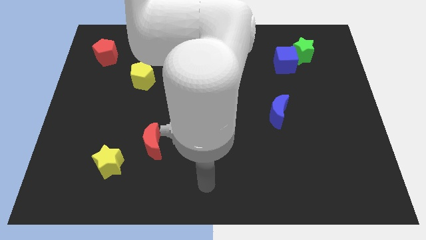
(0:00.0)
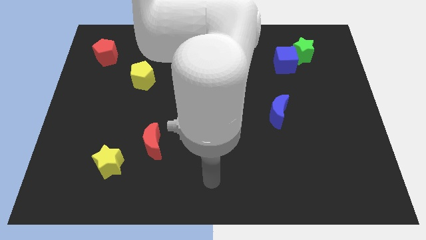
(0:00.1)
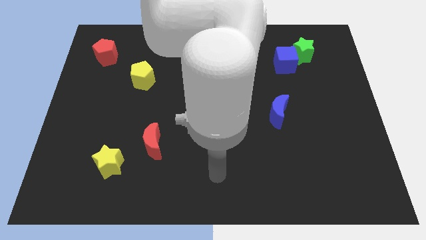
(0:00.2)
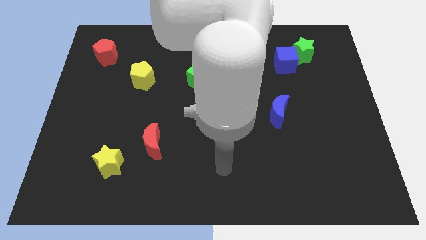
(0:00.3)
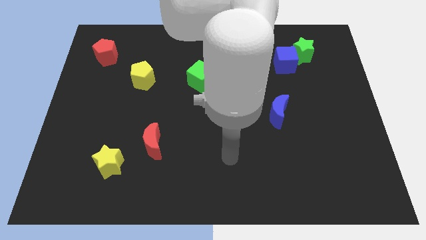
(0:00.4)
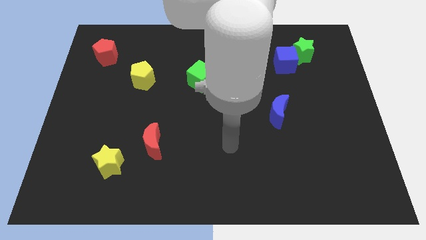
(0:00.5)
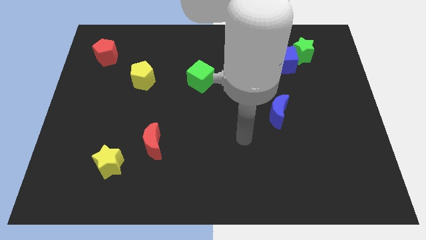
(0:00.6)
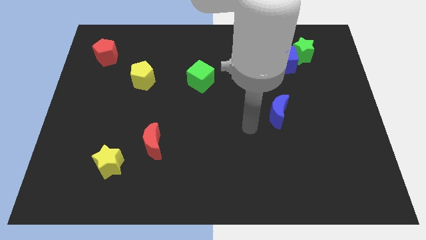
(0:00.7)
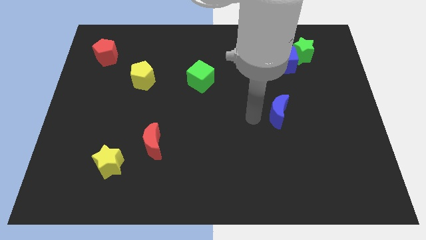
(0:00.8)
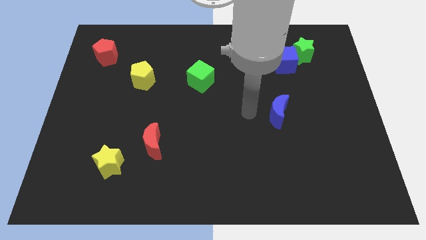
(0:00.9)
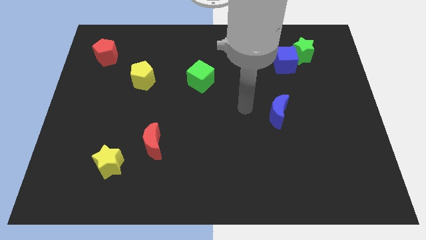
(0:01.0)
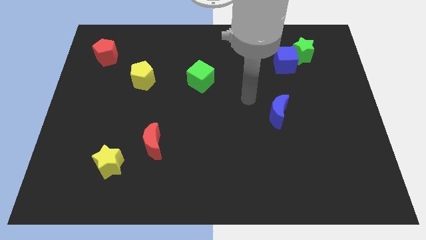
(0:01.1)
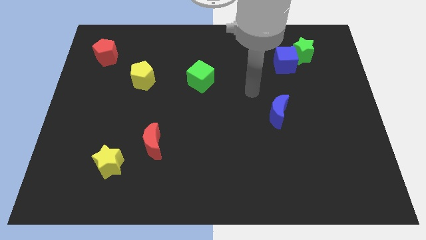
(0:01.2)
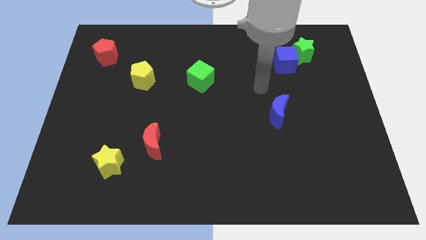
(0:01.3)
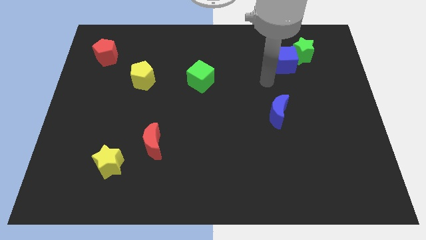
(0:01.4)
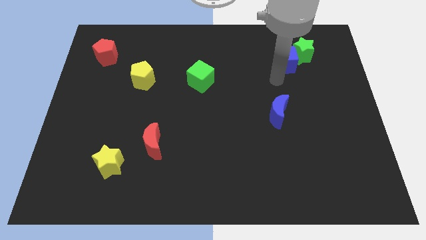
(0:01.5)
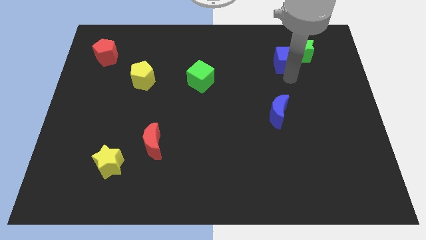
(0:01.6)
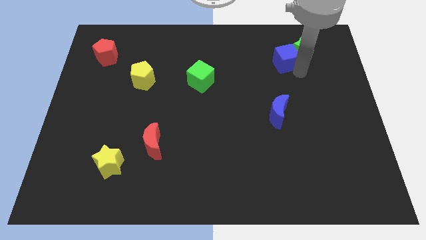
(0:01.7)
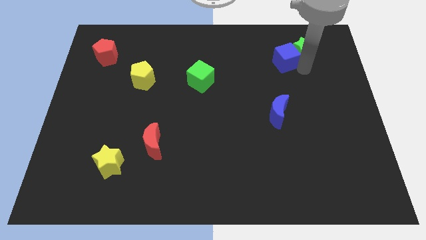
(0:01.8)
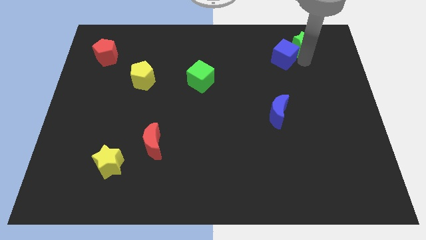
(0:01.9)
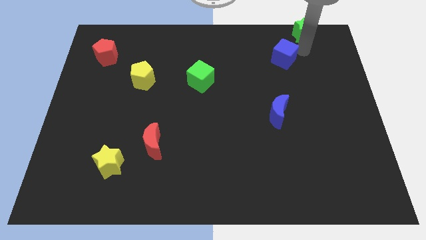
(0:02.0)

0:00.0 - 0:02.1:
move the blue cube away from the green star

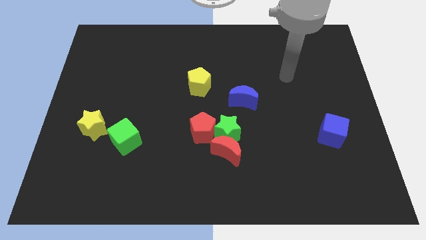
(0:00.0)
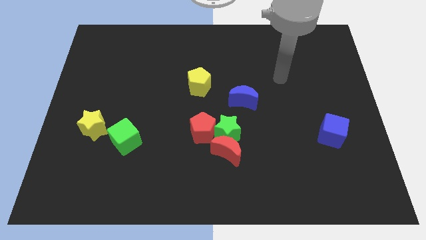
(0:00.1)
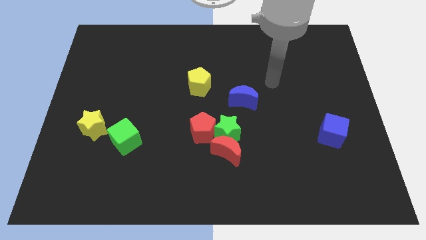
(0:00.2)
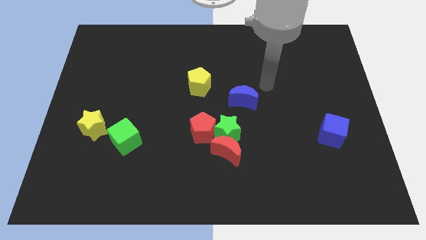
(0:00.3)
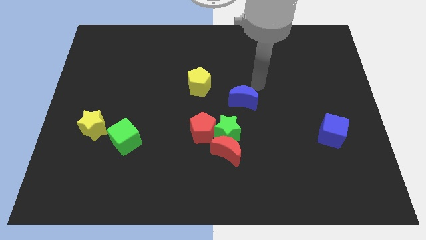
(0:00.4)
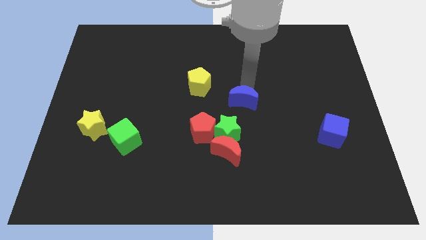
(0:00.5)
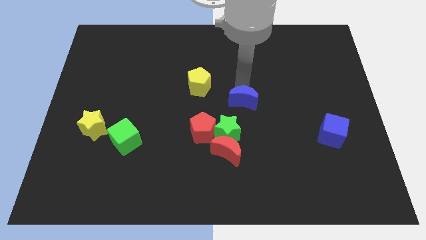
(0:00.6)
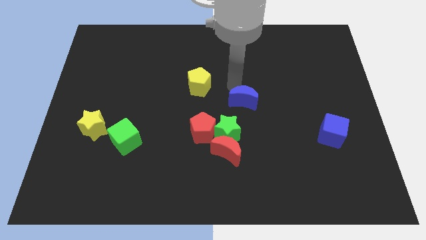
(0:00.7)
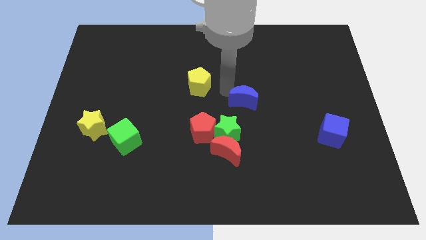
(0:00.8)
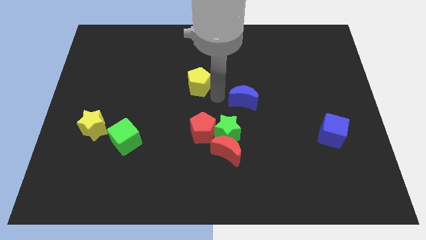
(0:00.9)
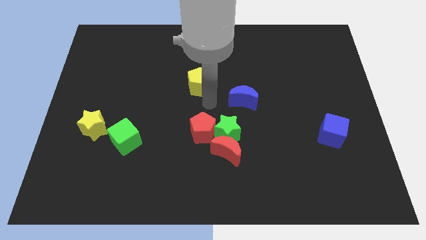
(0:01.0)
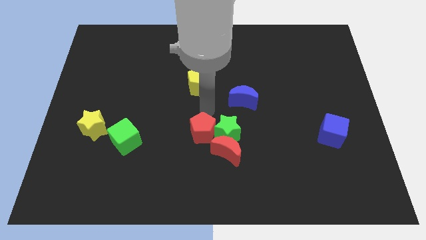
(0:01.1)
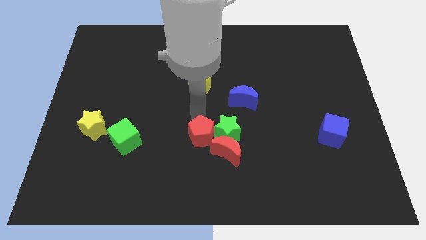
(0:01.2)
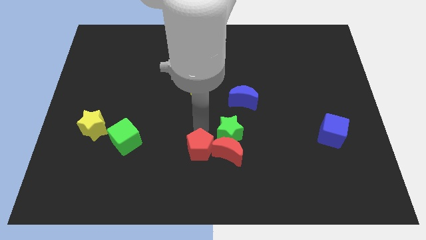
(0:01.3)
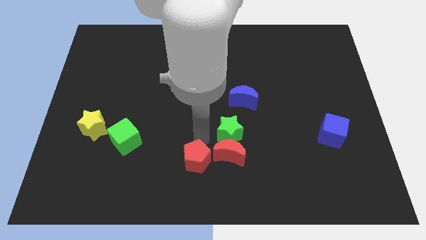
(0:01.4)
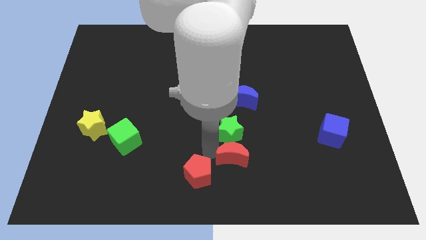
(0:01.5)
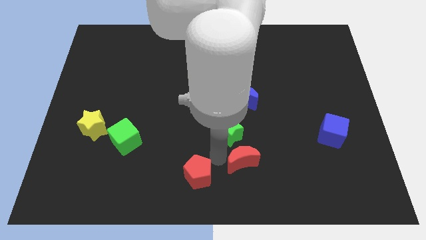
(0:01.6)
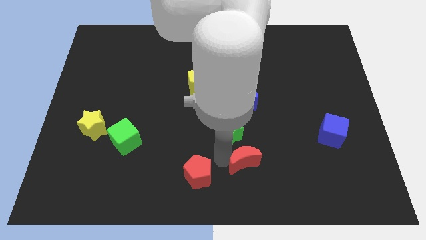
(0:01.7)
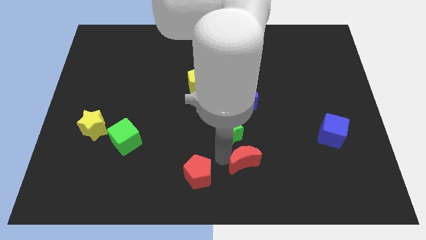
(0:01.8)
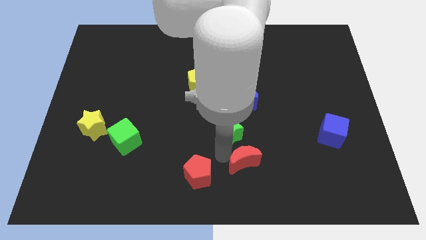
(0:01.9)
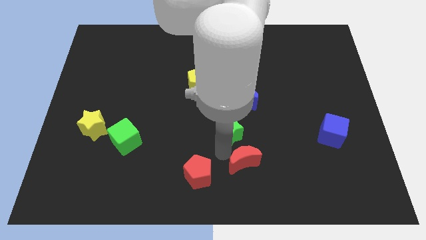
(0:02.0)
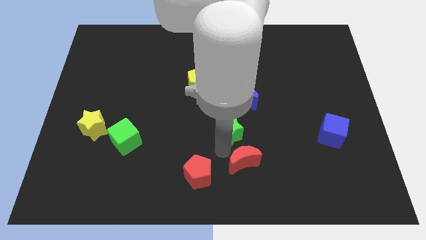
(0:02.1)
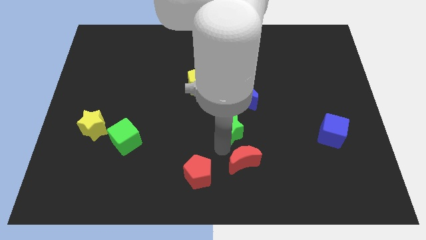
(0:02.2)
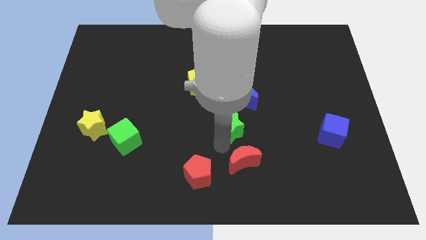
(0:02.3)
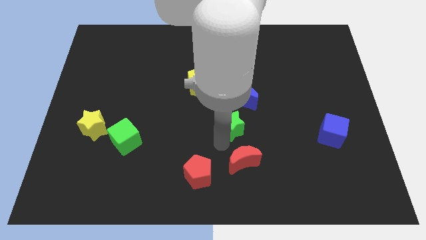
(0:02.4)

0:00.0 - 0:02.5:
separate the green star from the red moon and red pentagon

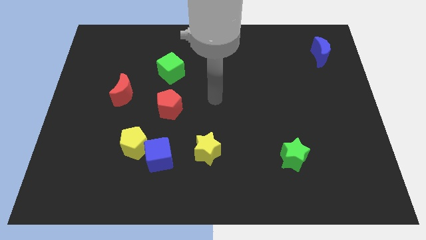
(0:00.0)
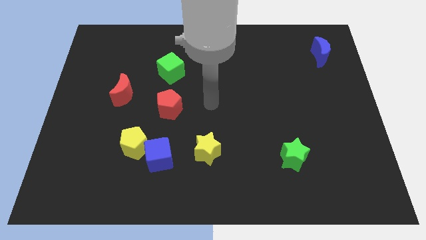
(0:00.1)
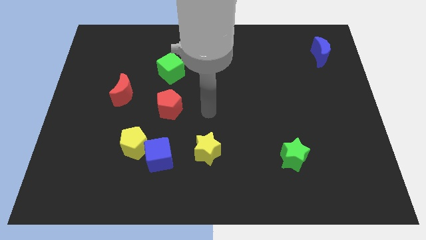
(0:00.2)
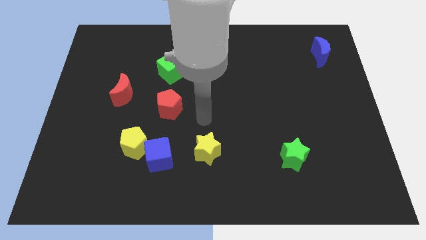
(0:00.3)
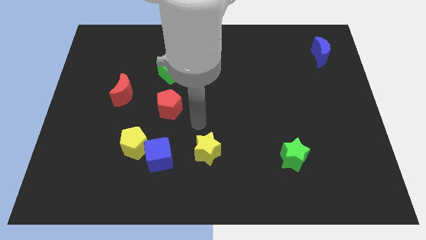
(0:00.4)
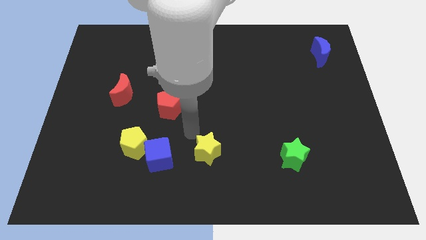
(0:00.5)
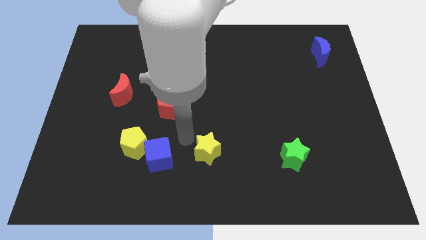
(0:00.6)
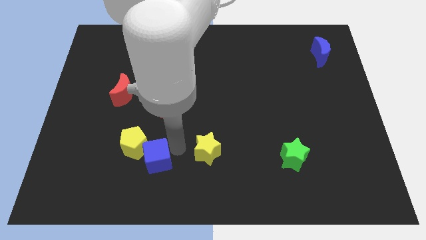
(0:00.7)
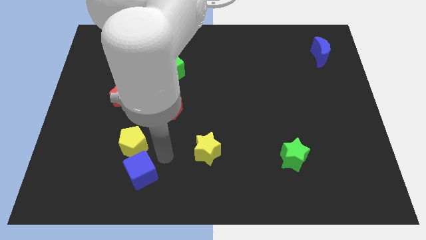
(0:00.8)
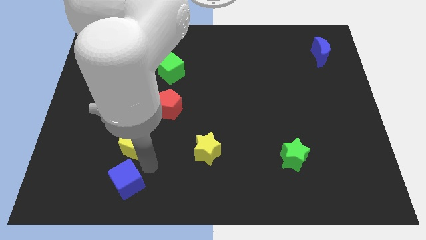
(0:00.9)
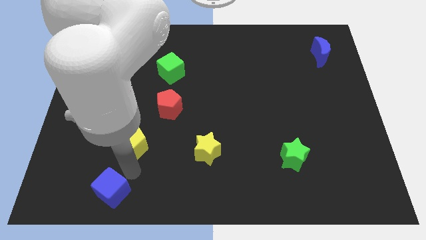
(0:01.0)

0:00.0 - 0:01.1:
pull the yellow pentagon apart from the blue cube

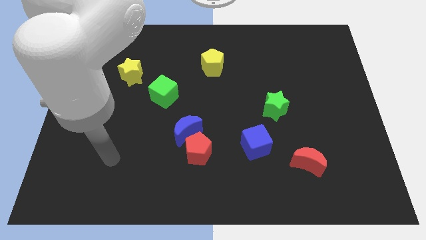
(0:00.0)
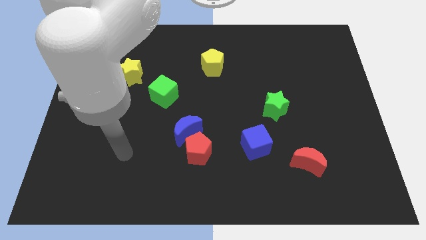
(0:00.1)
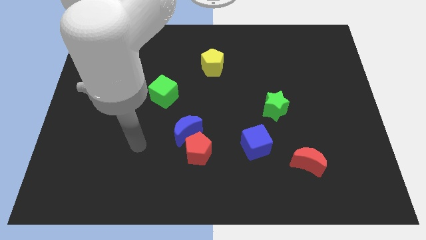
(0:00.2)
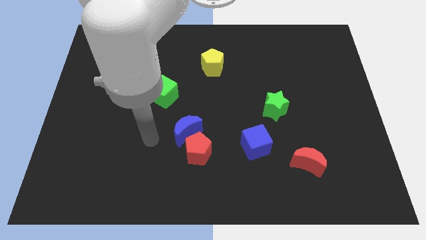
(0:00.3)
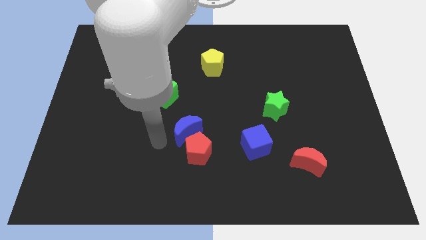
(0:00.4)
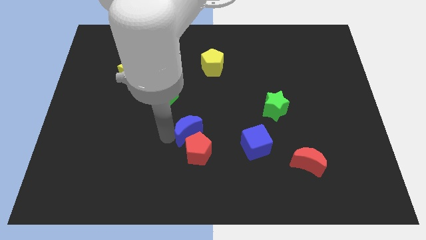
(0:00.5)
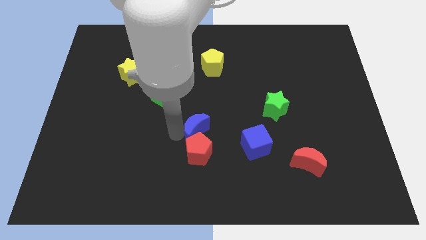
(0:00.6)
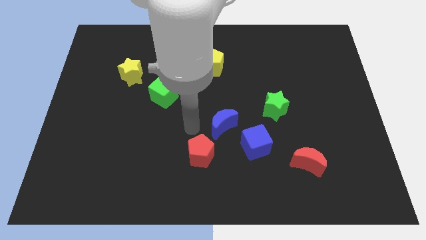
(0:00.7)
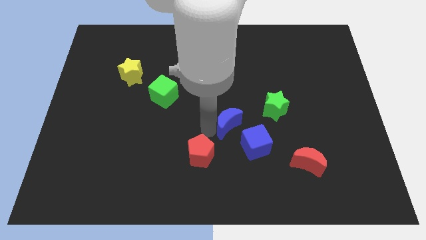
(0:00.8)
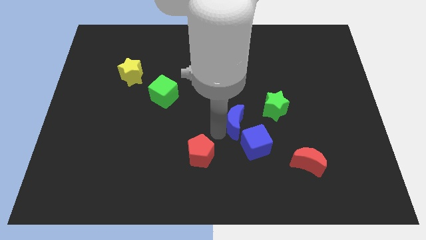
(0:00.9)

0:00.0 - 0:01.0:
separate the red pentagon from the blue moon

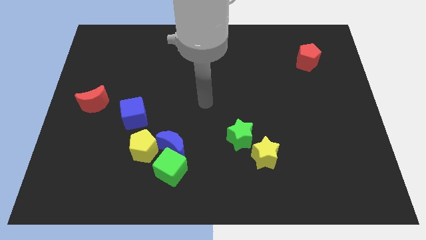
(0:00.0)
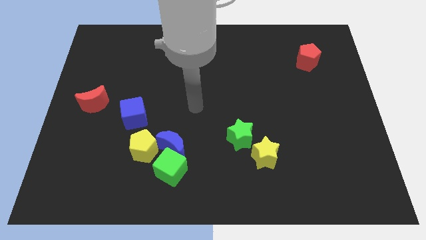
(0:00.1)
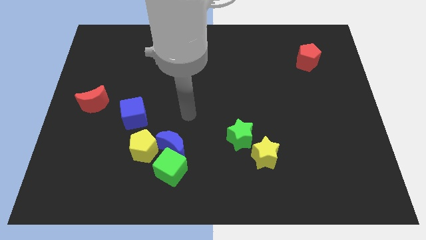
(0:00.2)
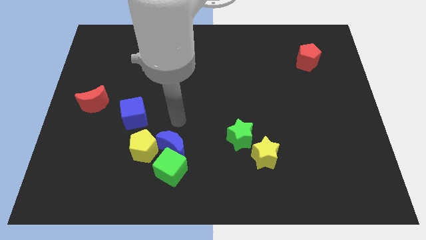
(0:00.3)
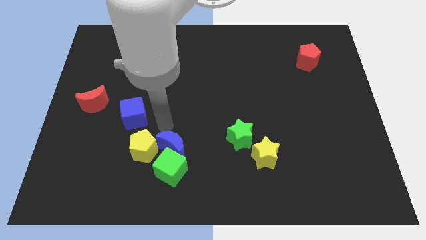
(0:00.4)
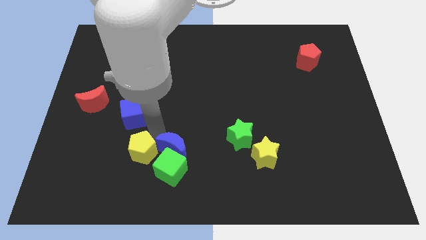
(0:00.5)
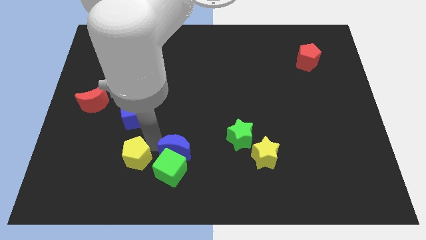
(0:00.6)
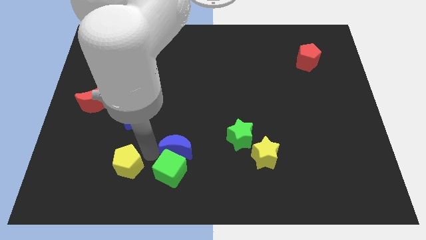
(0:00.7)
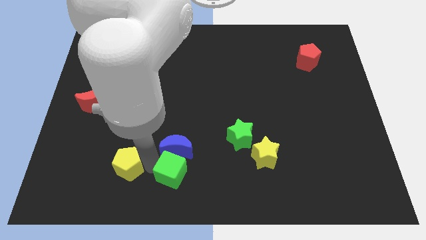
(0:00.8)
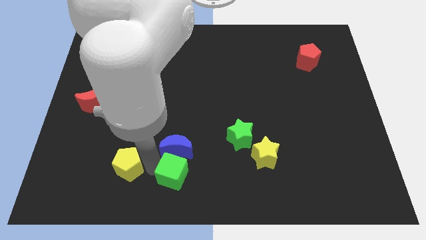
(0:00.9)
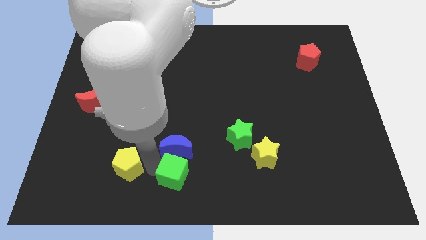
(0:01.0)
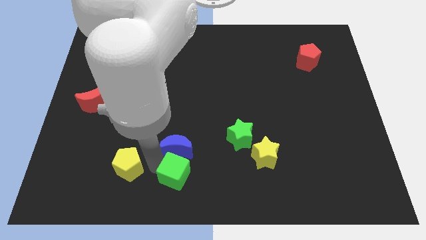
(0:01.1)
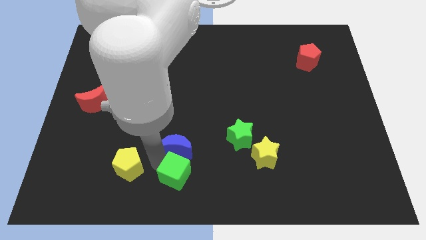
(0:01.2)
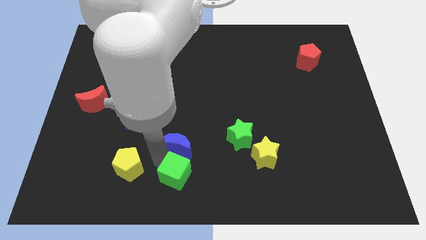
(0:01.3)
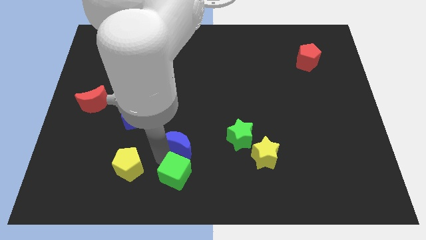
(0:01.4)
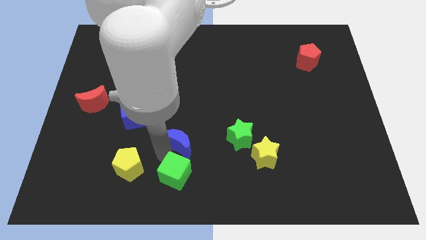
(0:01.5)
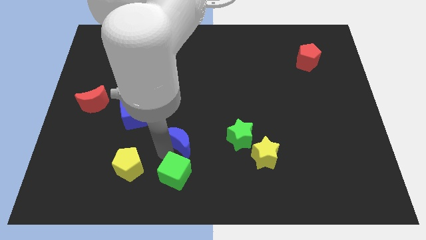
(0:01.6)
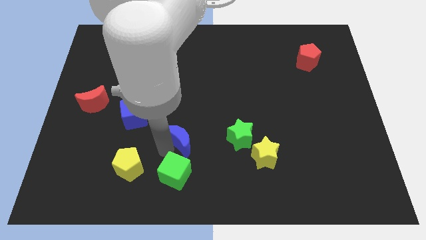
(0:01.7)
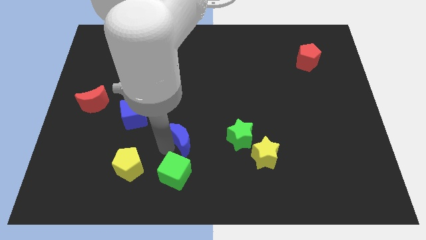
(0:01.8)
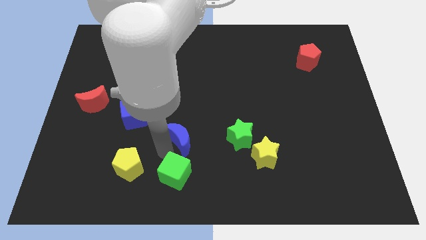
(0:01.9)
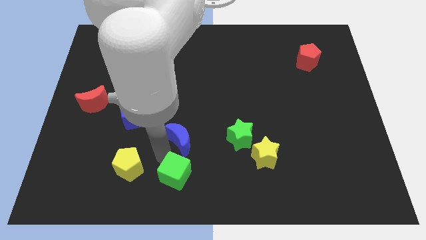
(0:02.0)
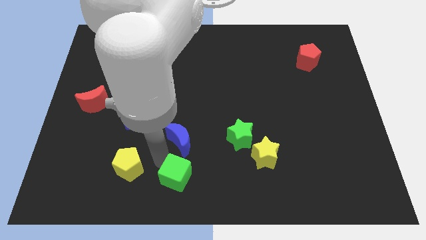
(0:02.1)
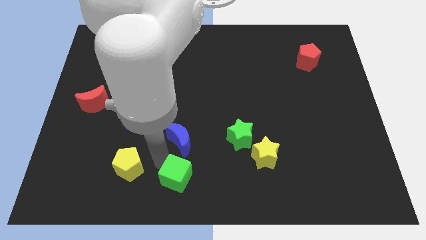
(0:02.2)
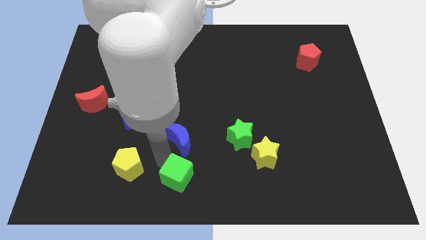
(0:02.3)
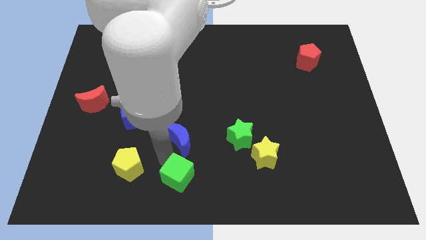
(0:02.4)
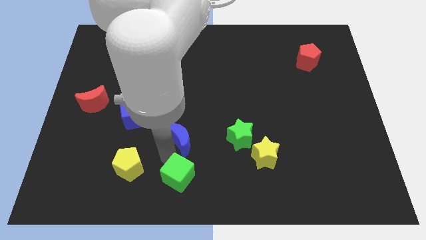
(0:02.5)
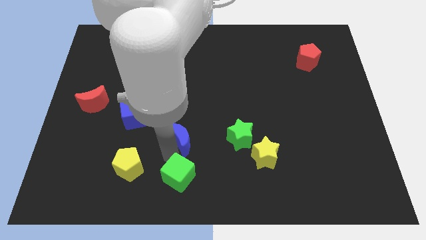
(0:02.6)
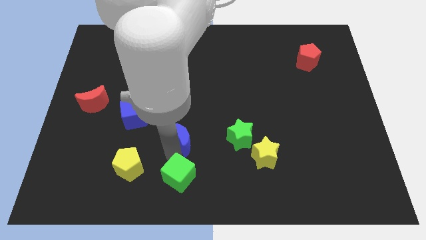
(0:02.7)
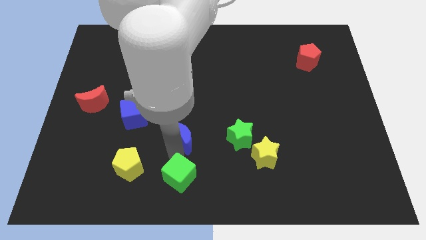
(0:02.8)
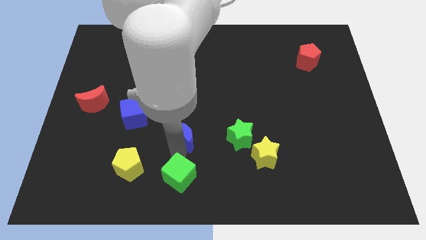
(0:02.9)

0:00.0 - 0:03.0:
move the blue moon away from the green cube and yellow pentagon
